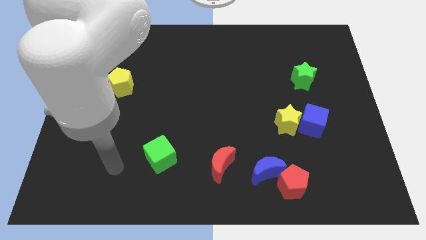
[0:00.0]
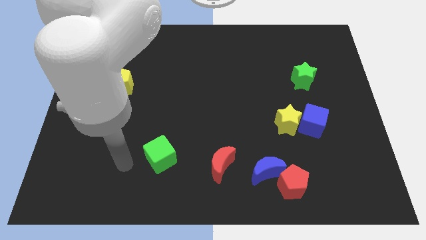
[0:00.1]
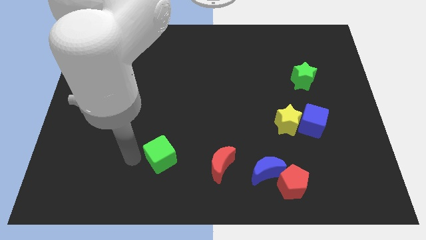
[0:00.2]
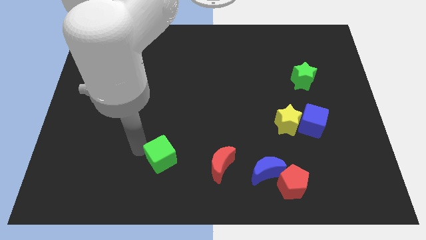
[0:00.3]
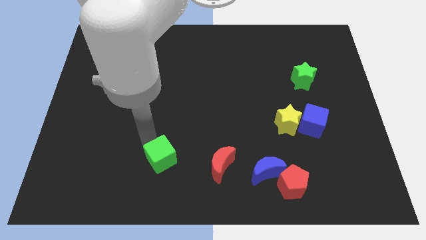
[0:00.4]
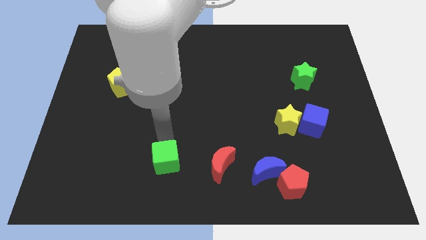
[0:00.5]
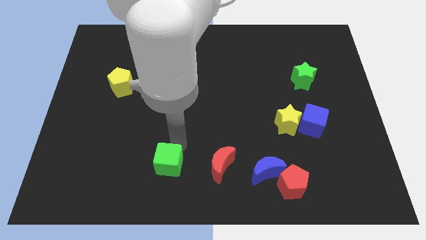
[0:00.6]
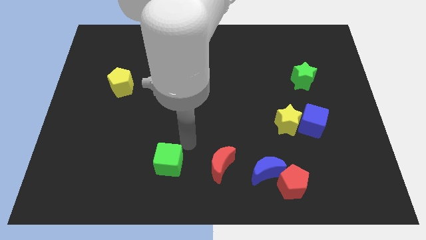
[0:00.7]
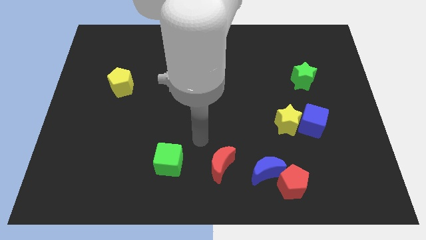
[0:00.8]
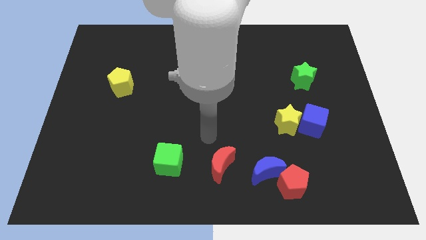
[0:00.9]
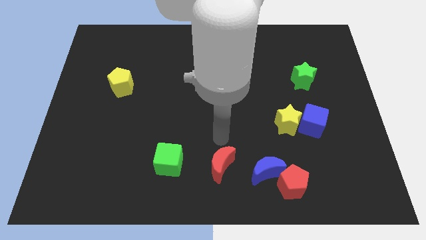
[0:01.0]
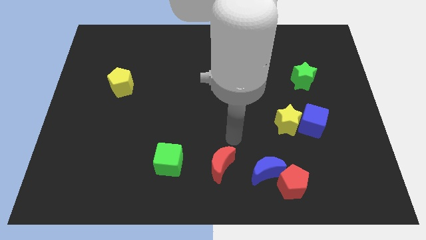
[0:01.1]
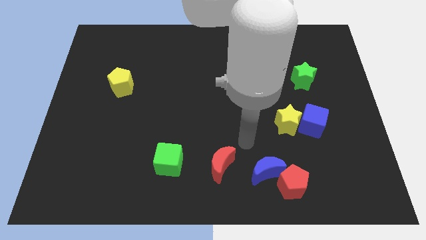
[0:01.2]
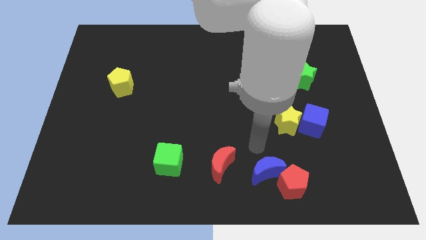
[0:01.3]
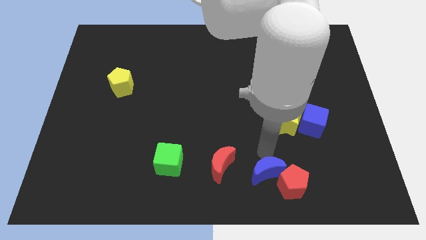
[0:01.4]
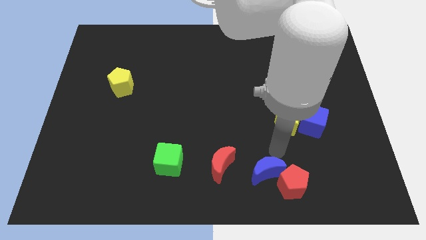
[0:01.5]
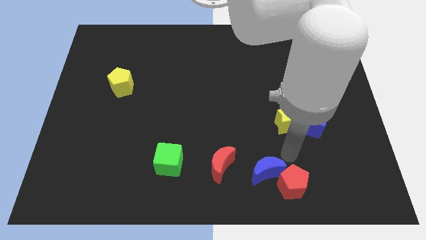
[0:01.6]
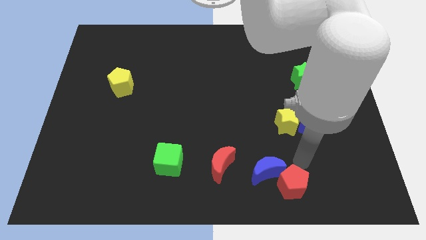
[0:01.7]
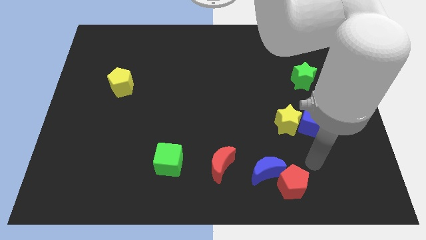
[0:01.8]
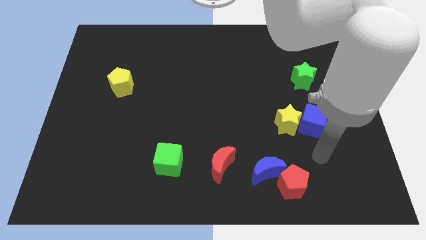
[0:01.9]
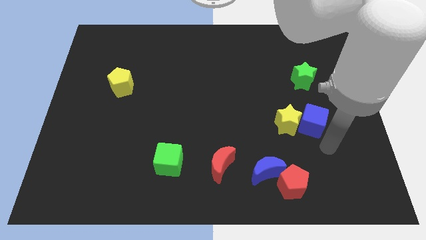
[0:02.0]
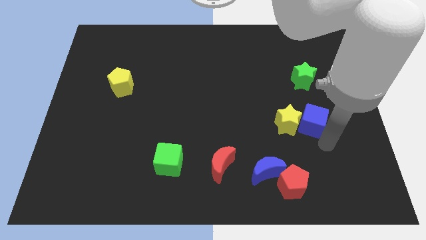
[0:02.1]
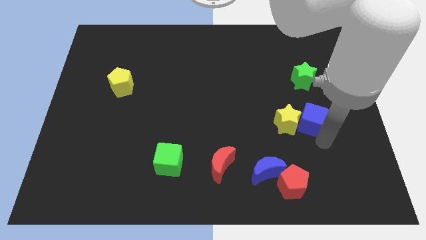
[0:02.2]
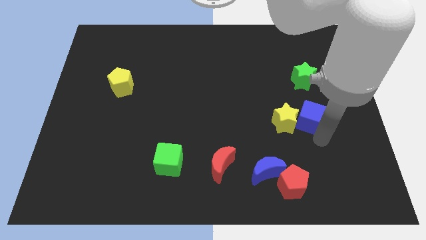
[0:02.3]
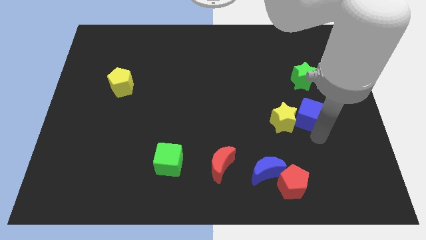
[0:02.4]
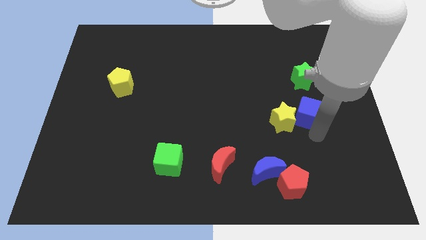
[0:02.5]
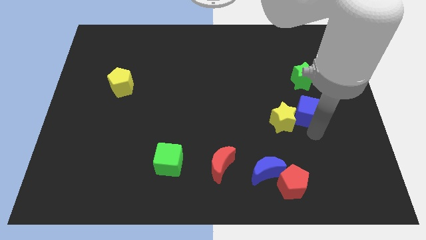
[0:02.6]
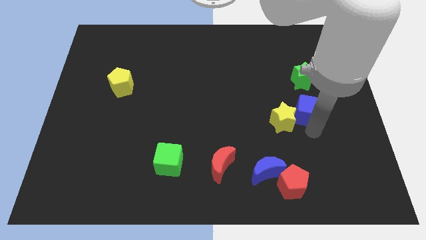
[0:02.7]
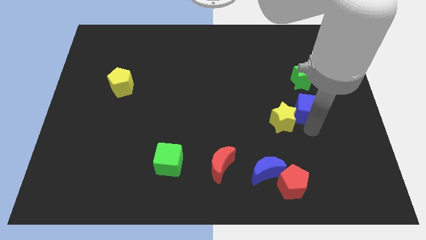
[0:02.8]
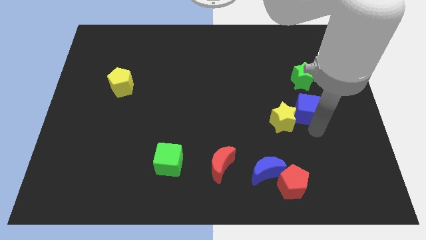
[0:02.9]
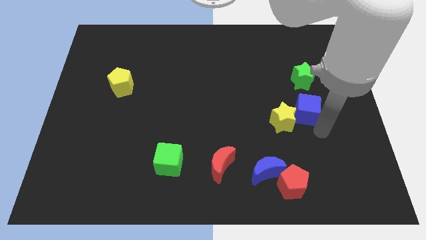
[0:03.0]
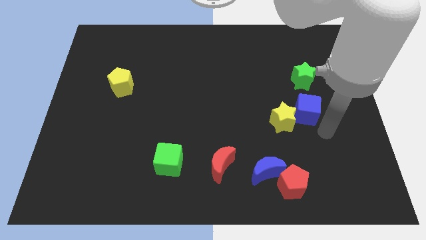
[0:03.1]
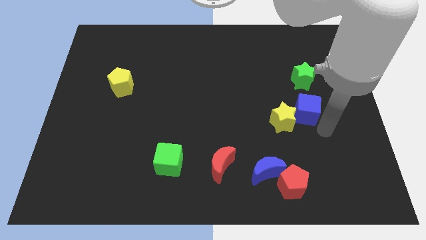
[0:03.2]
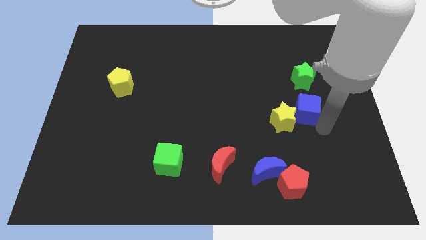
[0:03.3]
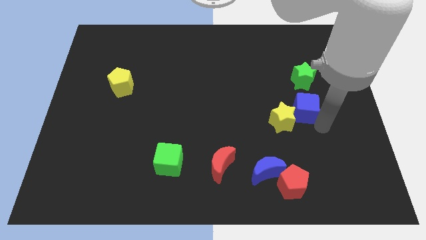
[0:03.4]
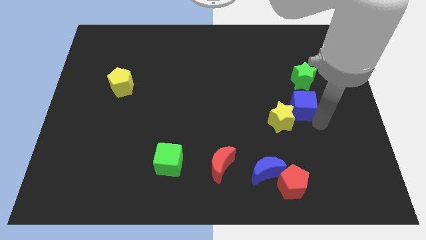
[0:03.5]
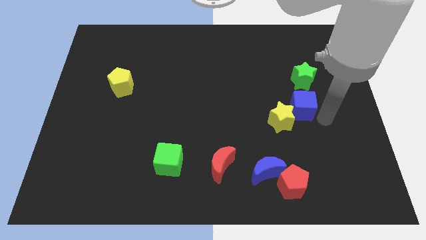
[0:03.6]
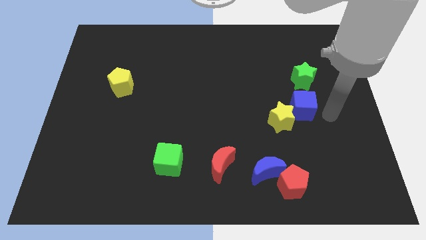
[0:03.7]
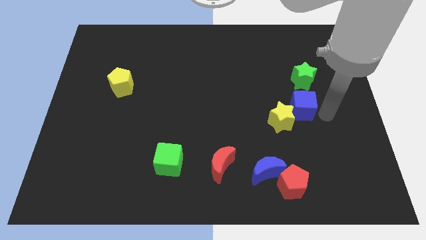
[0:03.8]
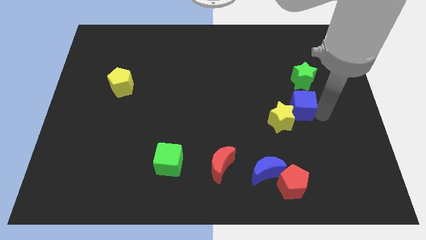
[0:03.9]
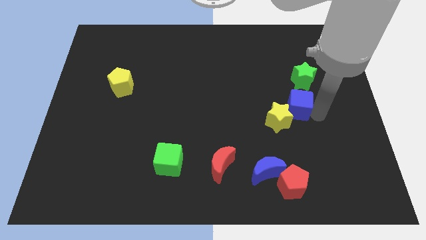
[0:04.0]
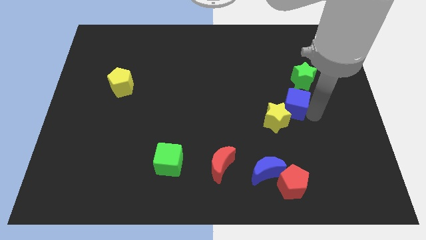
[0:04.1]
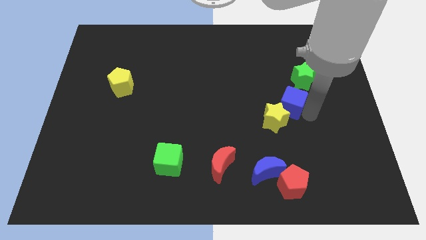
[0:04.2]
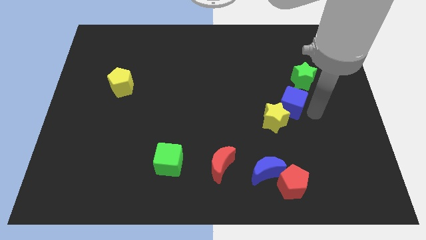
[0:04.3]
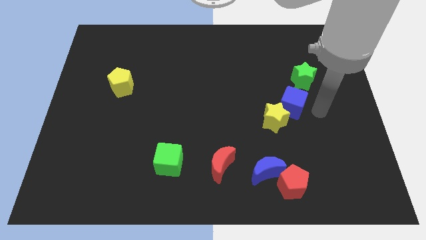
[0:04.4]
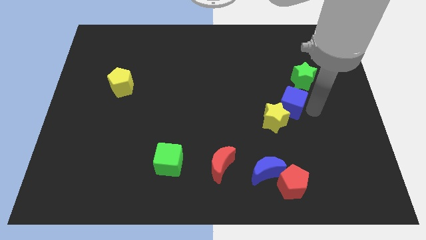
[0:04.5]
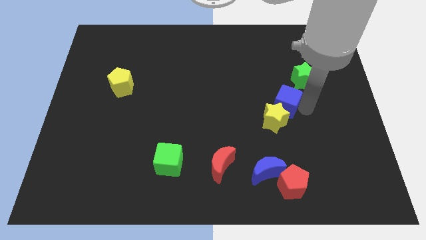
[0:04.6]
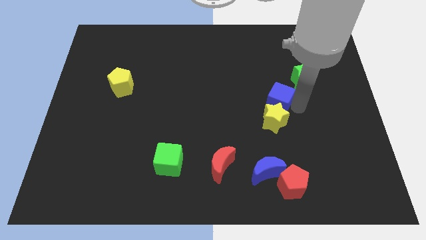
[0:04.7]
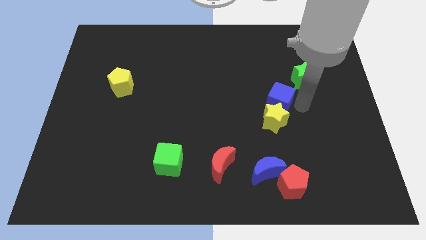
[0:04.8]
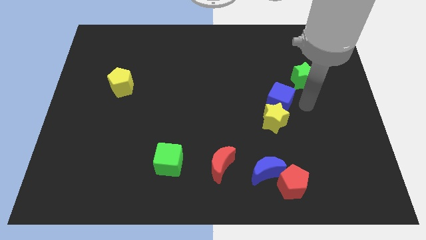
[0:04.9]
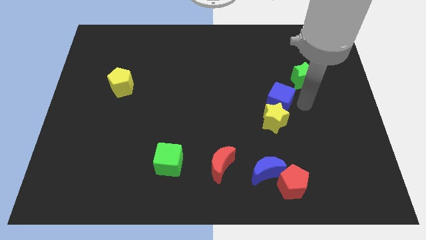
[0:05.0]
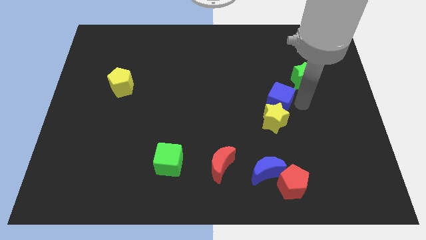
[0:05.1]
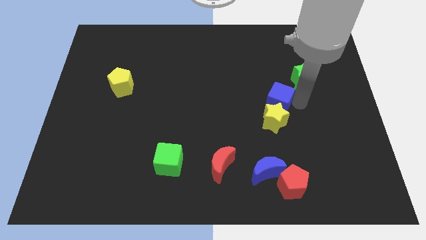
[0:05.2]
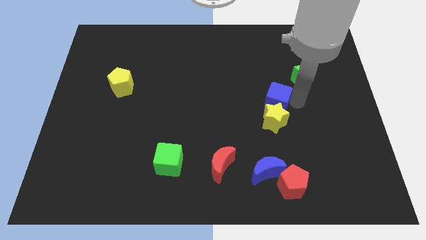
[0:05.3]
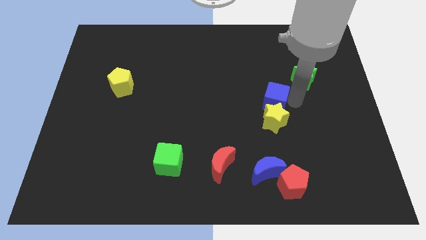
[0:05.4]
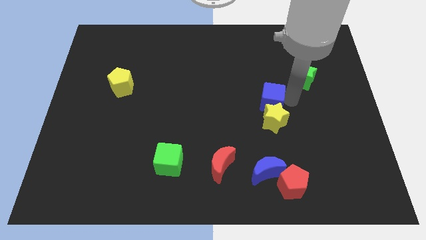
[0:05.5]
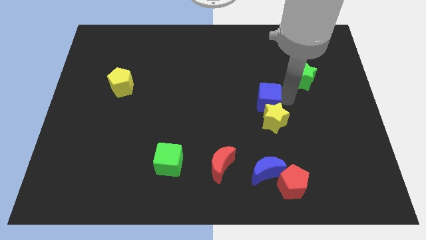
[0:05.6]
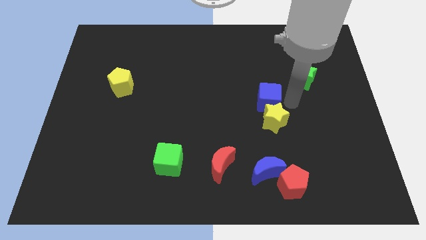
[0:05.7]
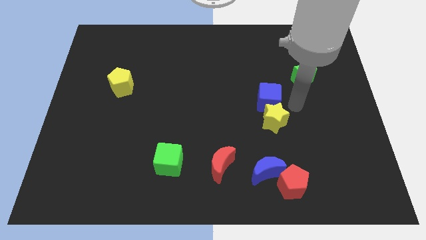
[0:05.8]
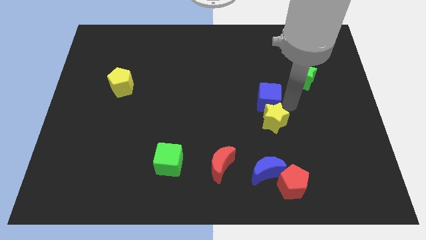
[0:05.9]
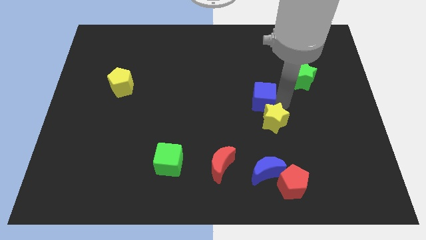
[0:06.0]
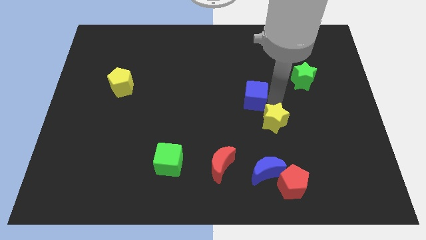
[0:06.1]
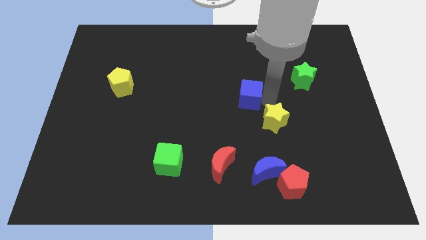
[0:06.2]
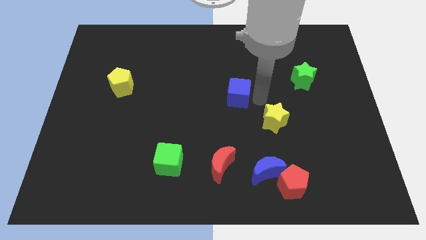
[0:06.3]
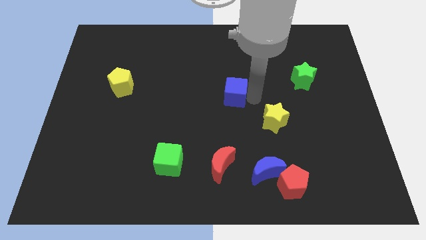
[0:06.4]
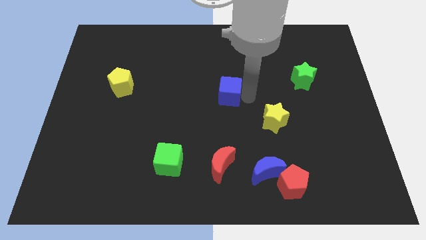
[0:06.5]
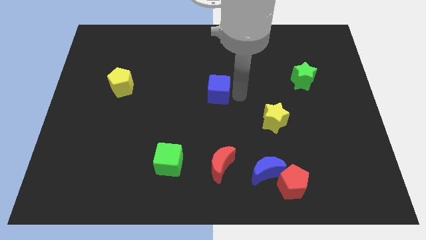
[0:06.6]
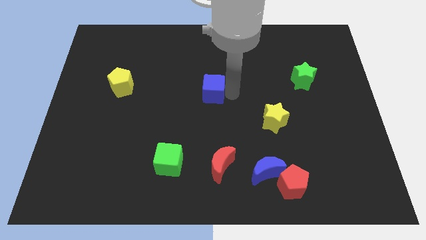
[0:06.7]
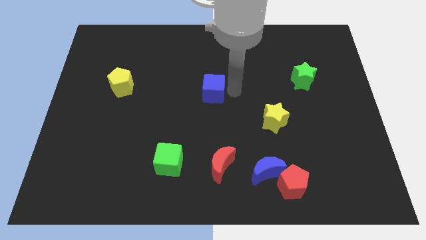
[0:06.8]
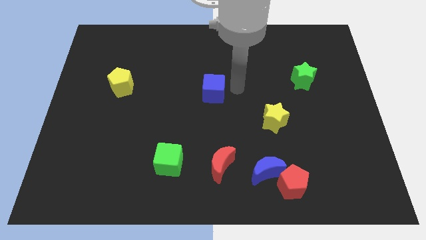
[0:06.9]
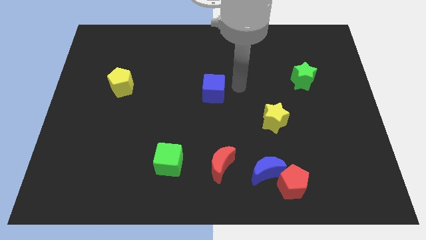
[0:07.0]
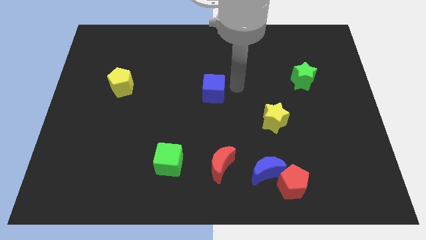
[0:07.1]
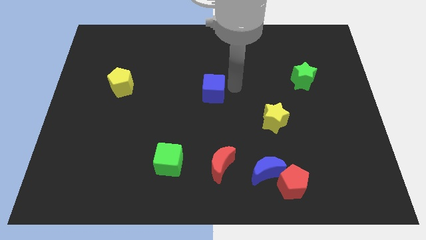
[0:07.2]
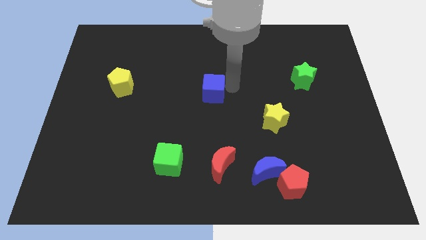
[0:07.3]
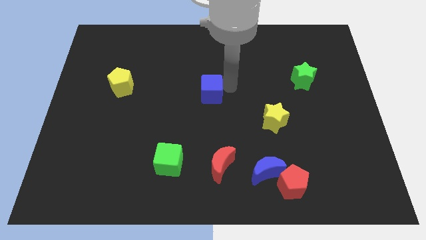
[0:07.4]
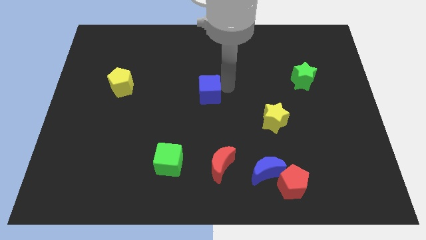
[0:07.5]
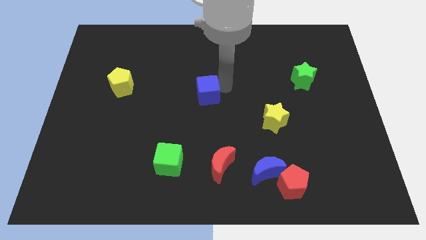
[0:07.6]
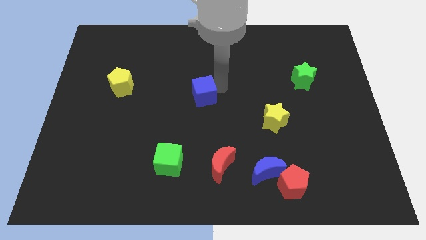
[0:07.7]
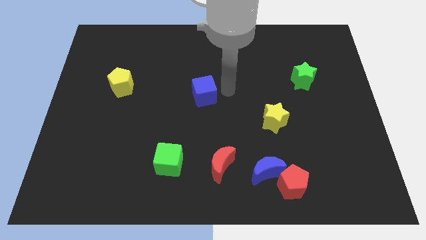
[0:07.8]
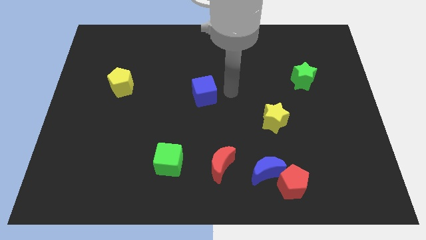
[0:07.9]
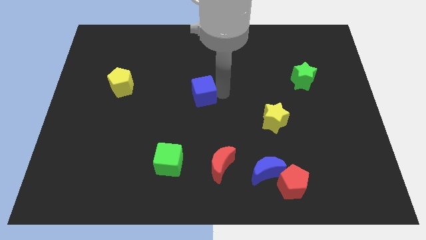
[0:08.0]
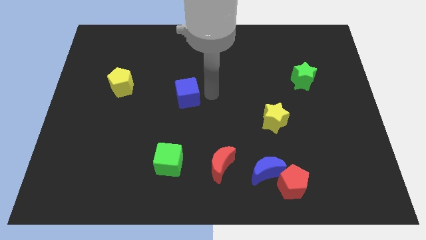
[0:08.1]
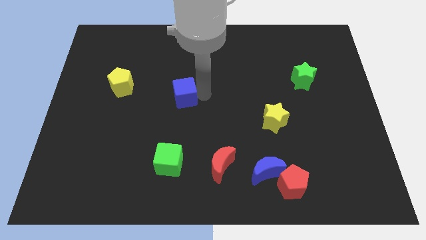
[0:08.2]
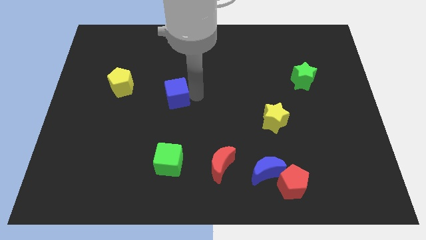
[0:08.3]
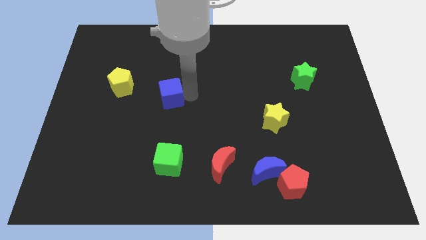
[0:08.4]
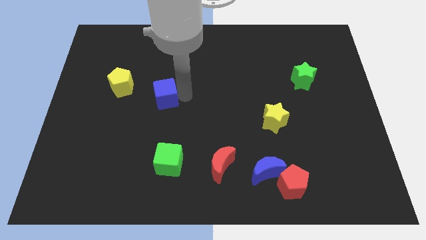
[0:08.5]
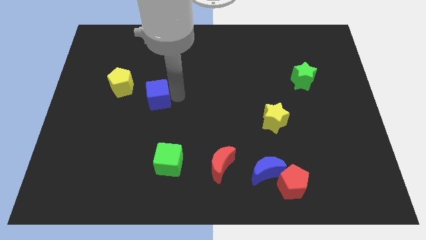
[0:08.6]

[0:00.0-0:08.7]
slide the blue cube diagonally down and to the right of the yellow pentagon

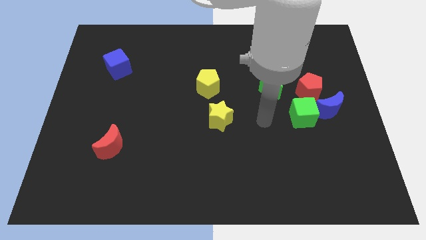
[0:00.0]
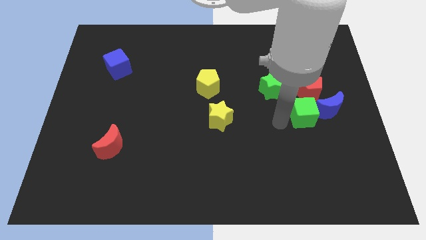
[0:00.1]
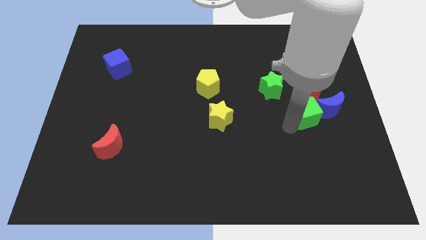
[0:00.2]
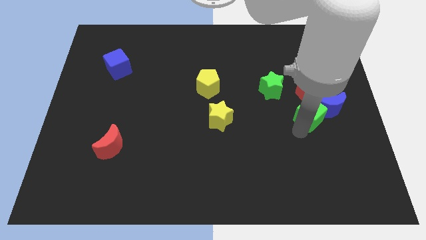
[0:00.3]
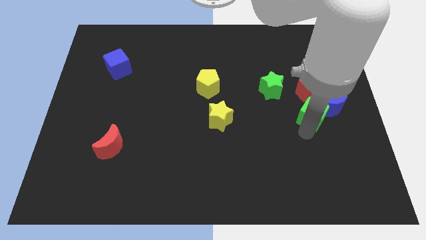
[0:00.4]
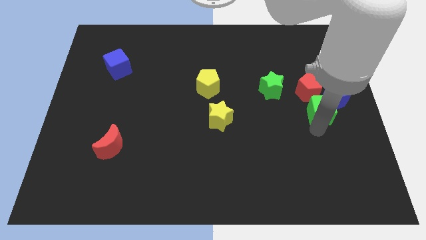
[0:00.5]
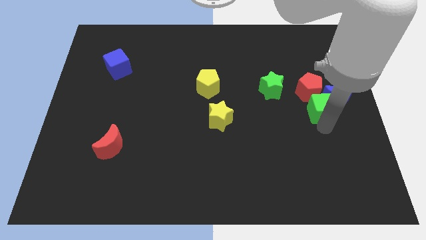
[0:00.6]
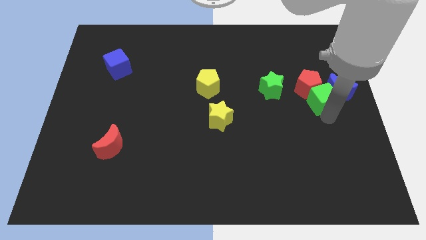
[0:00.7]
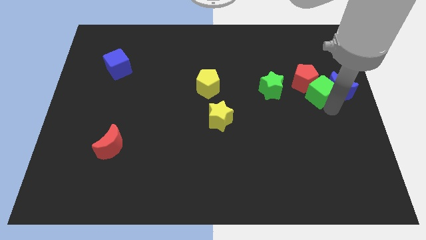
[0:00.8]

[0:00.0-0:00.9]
push the red pentagon to the top right of the green star
